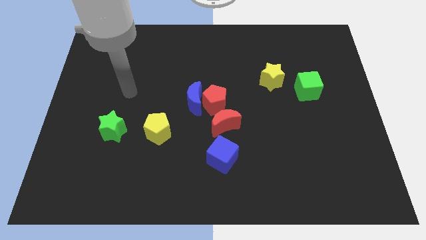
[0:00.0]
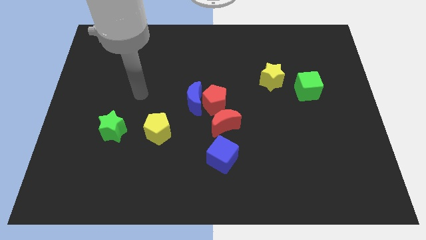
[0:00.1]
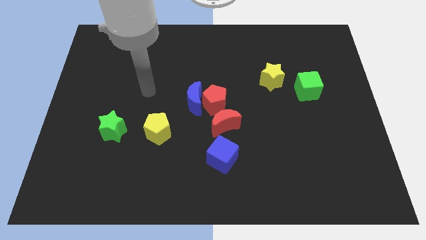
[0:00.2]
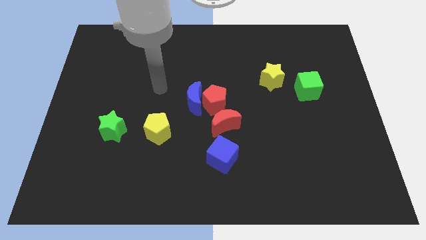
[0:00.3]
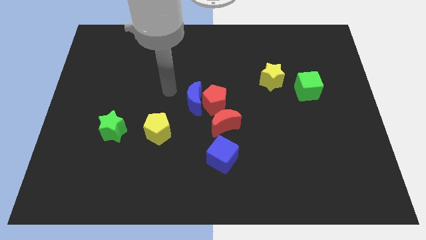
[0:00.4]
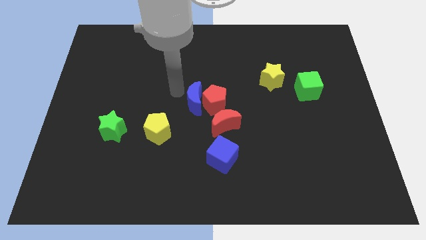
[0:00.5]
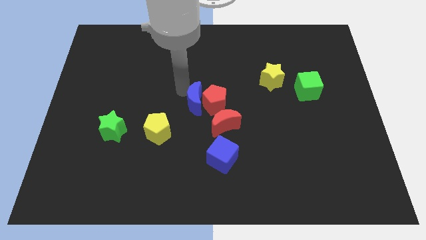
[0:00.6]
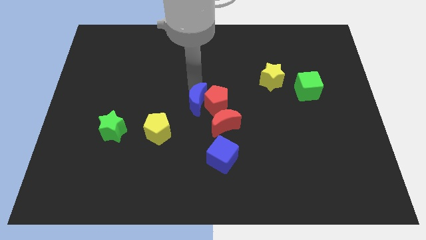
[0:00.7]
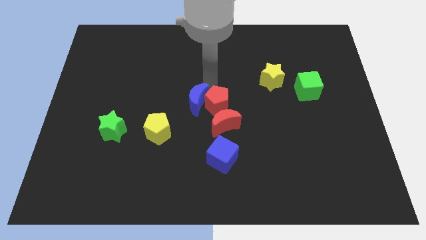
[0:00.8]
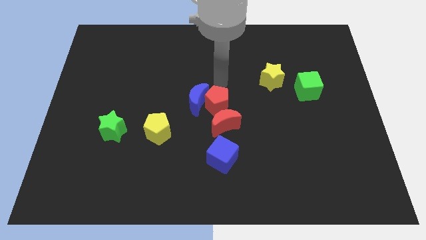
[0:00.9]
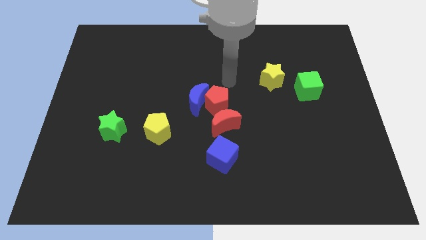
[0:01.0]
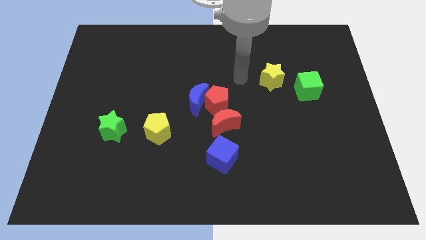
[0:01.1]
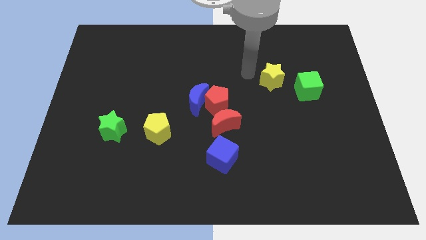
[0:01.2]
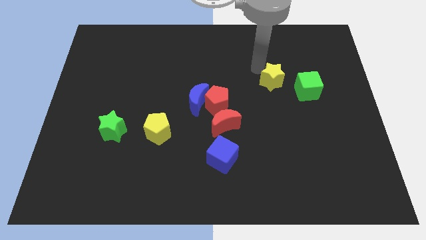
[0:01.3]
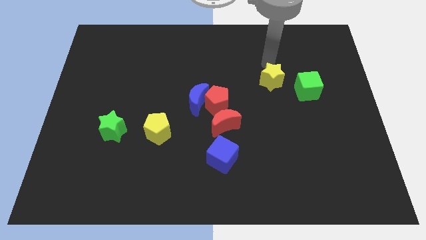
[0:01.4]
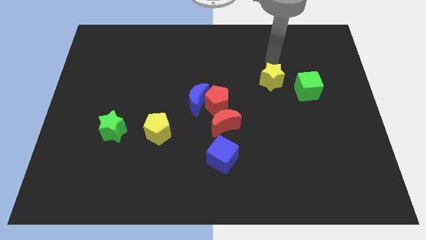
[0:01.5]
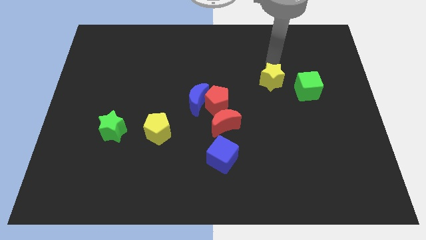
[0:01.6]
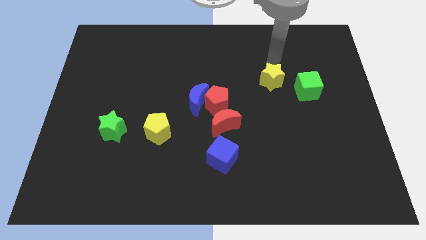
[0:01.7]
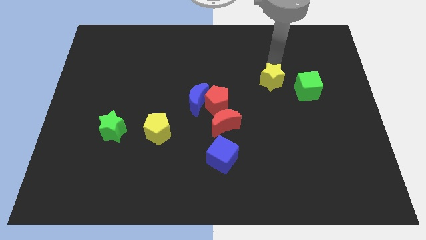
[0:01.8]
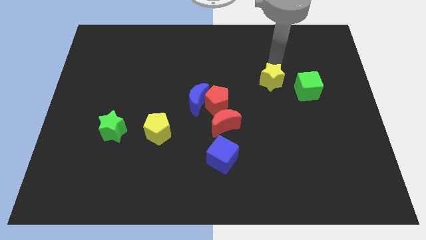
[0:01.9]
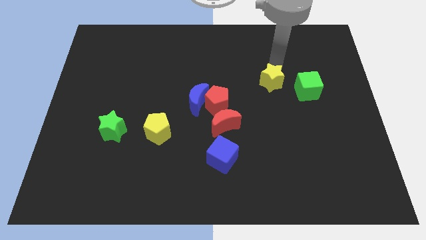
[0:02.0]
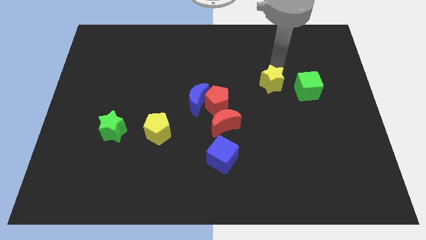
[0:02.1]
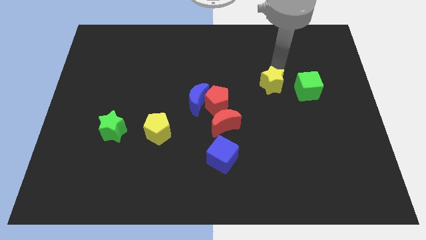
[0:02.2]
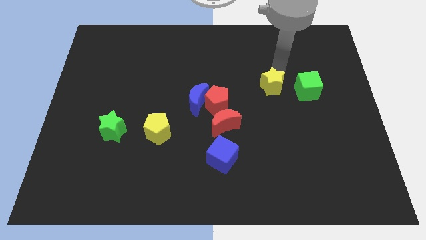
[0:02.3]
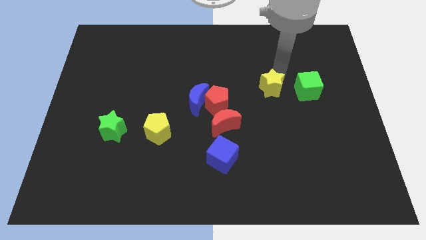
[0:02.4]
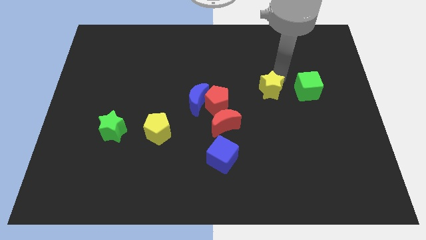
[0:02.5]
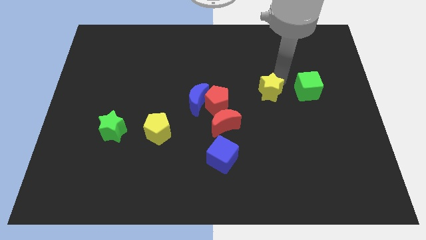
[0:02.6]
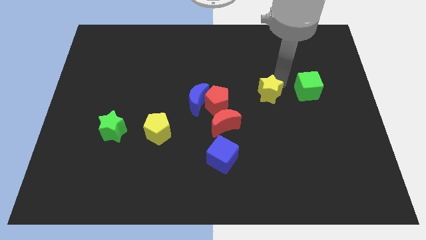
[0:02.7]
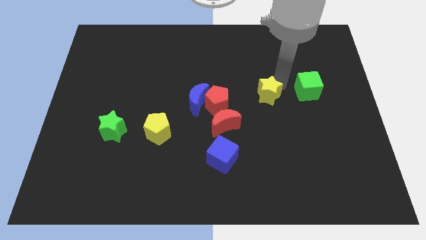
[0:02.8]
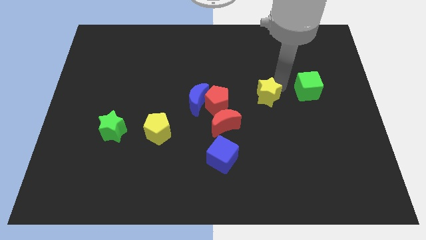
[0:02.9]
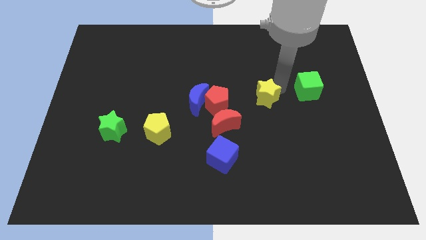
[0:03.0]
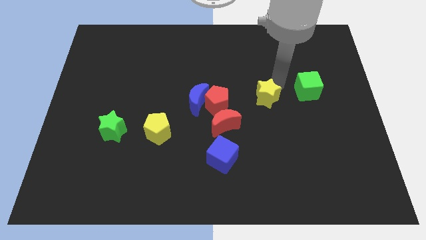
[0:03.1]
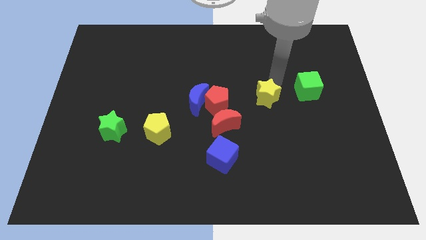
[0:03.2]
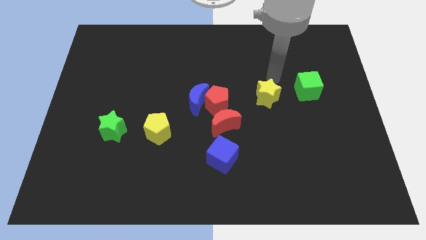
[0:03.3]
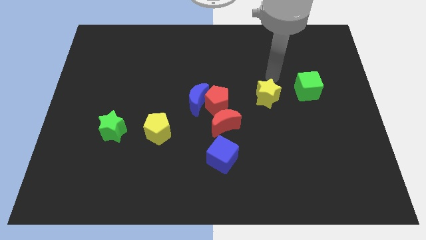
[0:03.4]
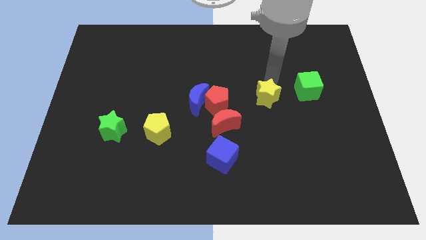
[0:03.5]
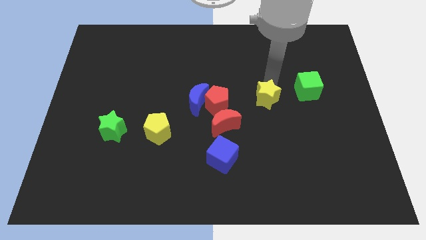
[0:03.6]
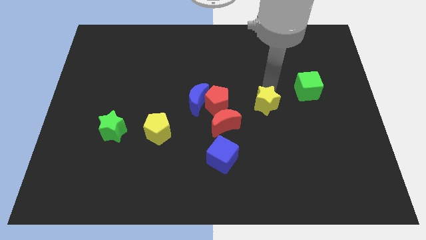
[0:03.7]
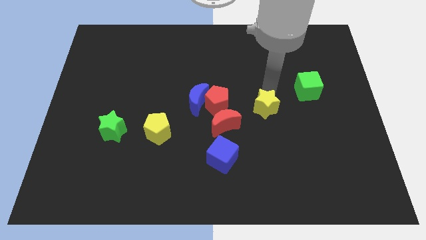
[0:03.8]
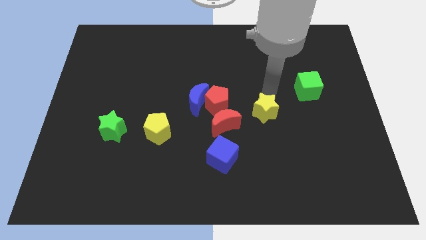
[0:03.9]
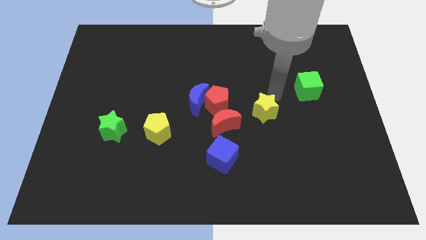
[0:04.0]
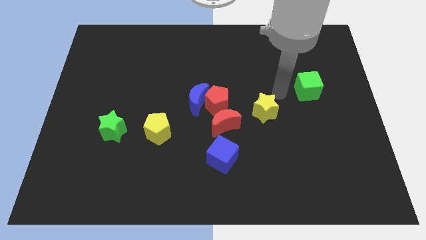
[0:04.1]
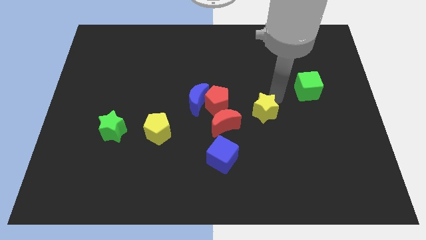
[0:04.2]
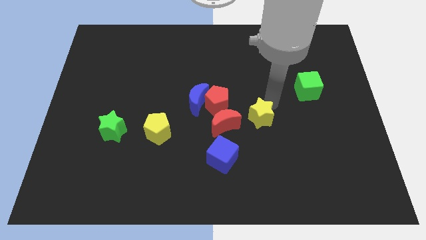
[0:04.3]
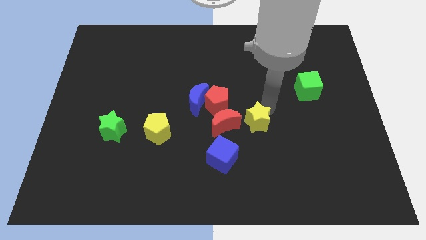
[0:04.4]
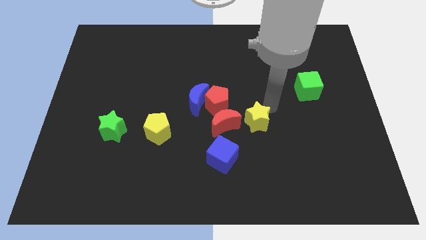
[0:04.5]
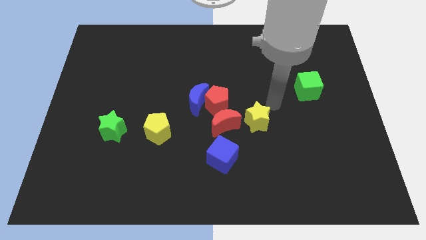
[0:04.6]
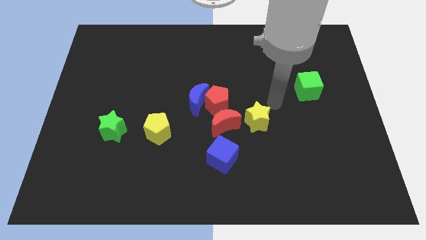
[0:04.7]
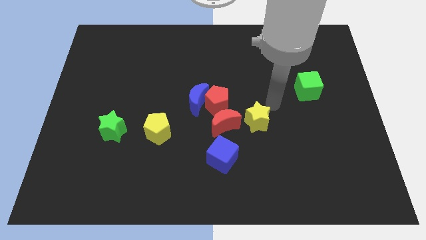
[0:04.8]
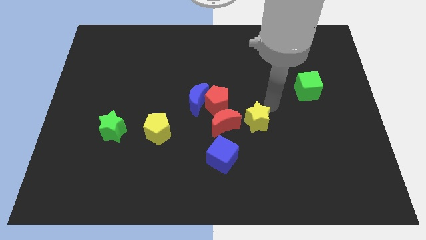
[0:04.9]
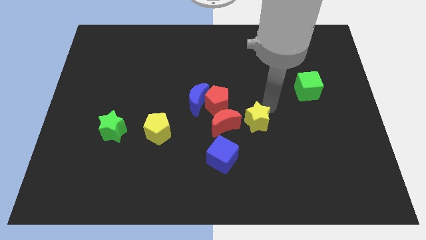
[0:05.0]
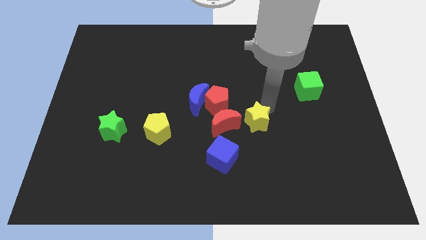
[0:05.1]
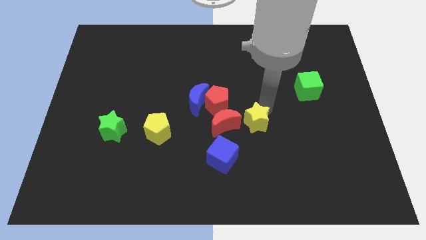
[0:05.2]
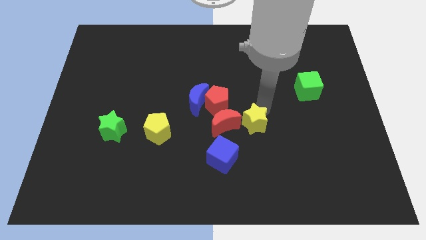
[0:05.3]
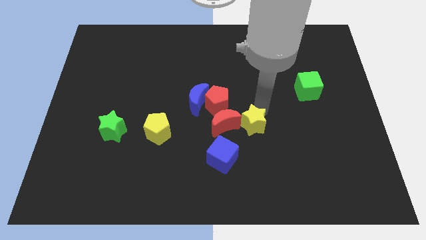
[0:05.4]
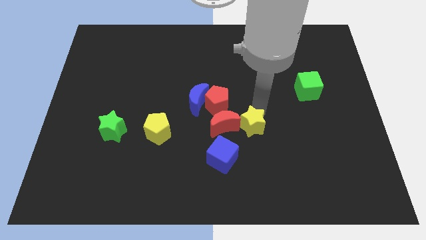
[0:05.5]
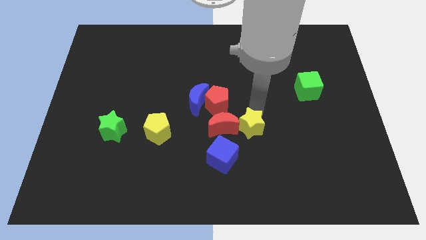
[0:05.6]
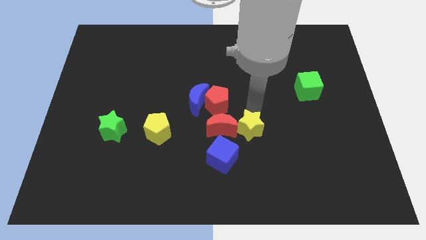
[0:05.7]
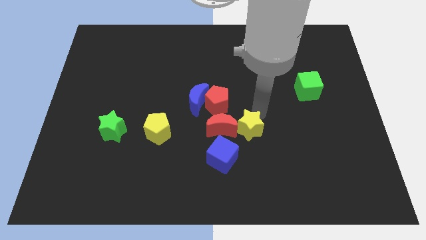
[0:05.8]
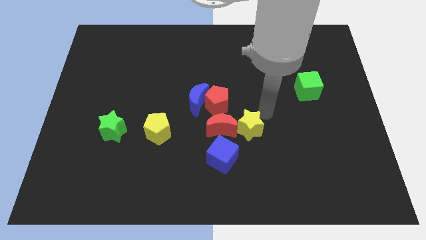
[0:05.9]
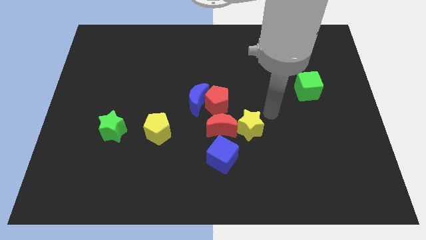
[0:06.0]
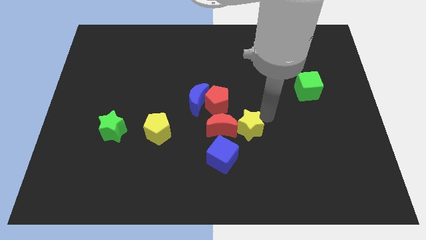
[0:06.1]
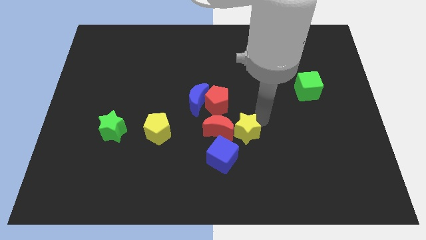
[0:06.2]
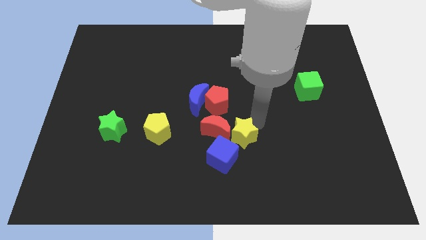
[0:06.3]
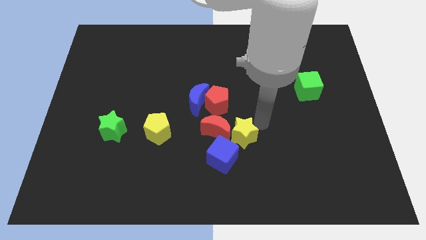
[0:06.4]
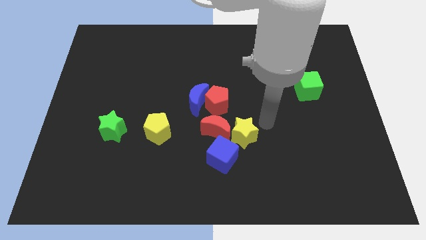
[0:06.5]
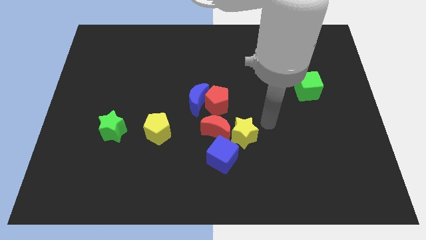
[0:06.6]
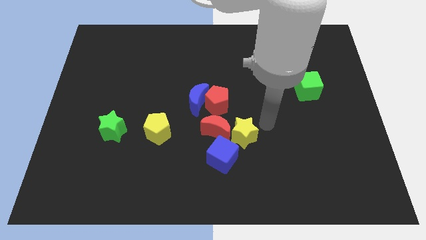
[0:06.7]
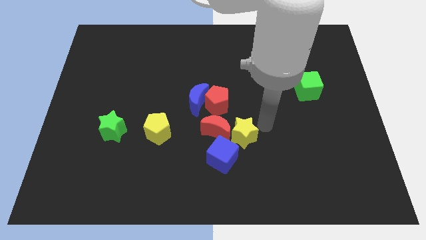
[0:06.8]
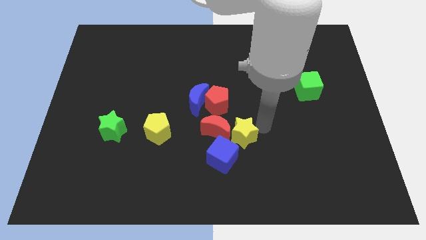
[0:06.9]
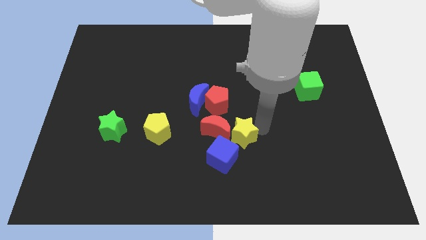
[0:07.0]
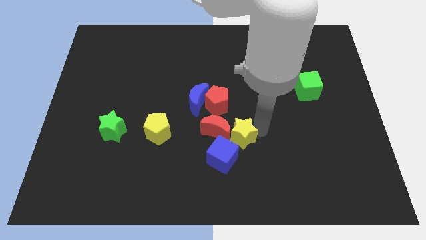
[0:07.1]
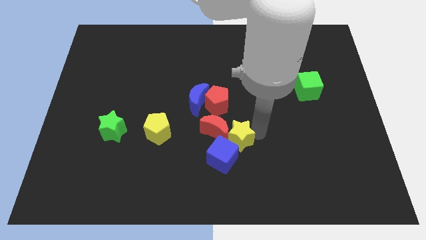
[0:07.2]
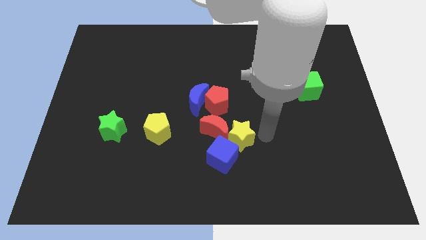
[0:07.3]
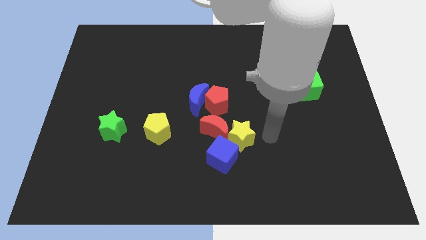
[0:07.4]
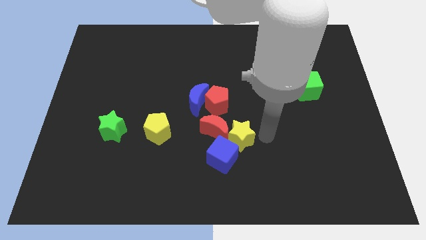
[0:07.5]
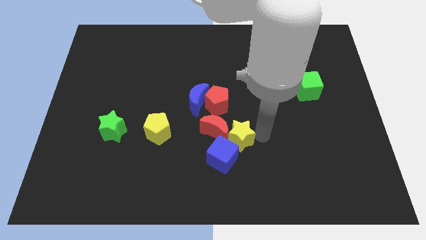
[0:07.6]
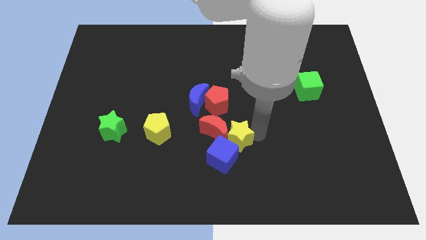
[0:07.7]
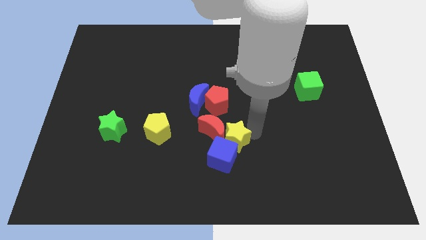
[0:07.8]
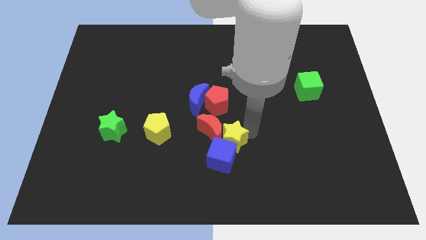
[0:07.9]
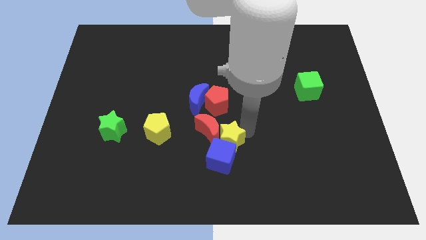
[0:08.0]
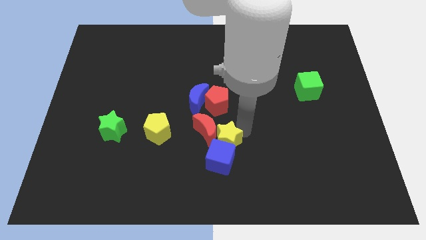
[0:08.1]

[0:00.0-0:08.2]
push the yellow star downwards and then to the left
